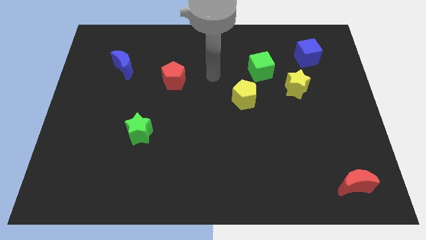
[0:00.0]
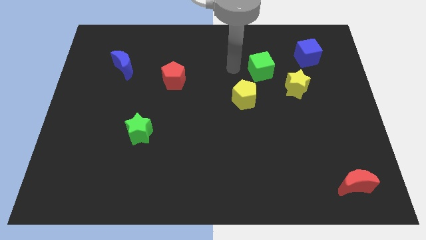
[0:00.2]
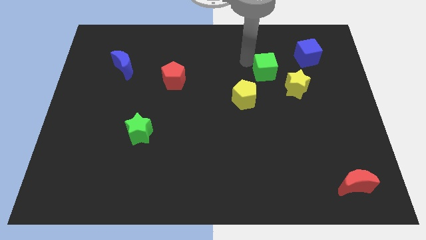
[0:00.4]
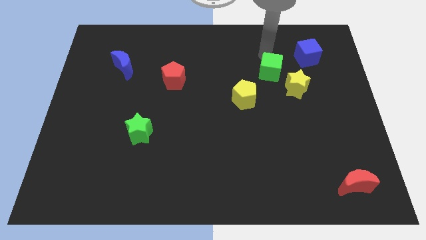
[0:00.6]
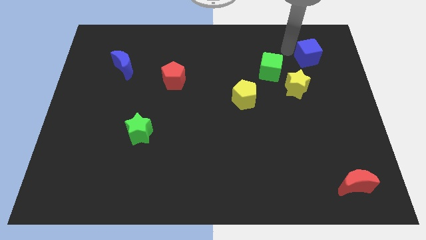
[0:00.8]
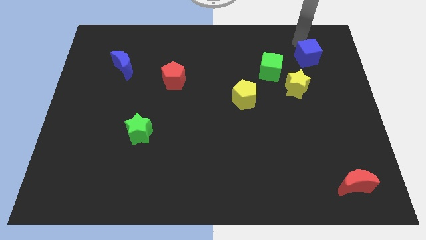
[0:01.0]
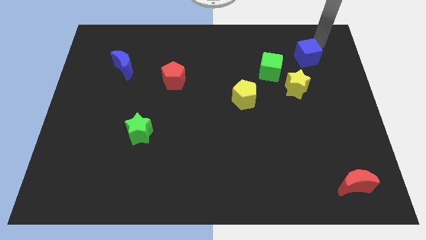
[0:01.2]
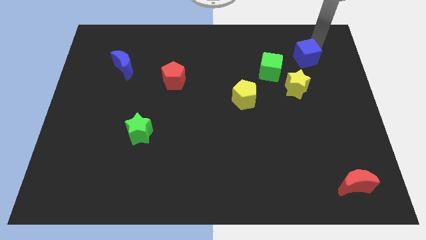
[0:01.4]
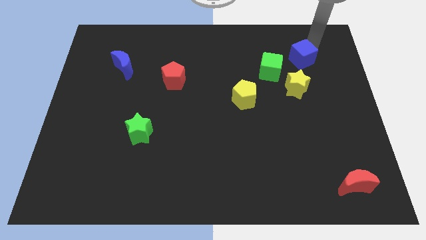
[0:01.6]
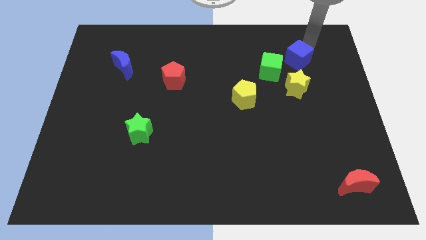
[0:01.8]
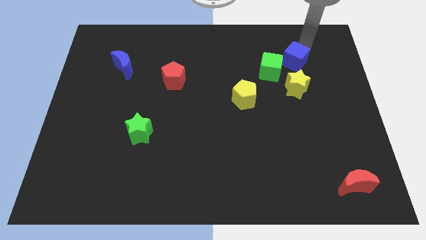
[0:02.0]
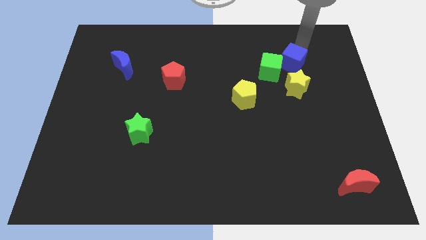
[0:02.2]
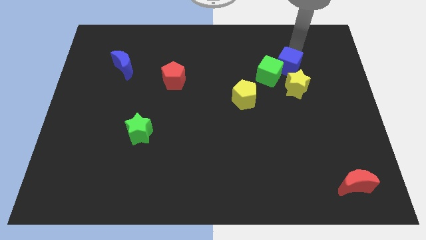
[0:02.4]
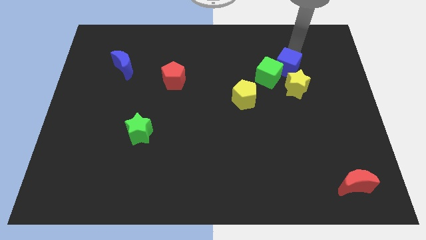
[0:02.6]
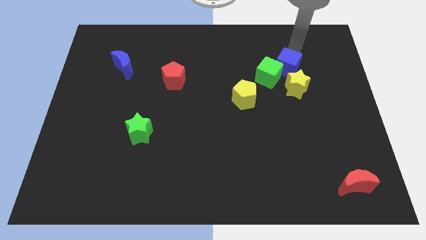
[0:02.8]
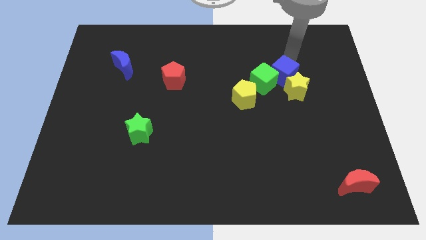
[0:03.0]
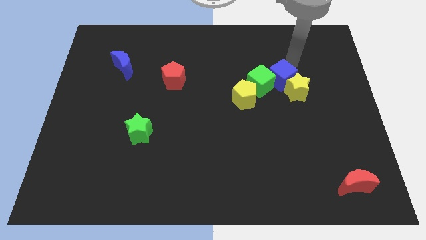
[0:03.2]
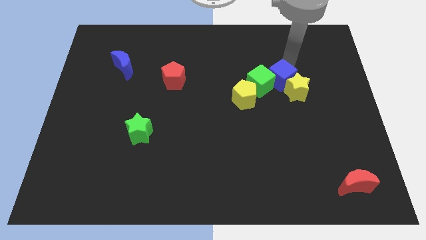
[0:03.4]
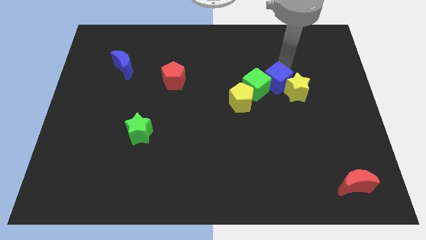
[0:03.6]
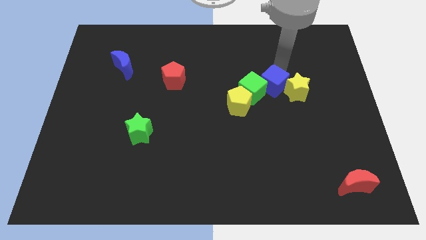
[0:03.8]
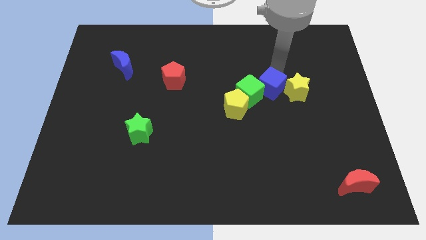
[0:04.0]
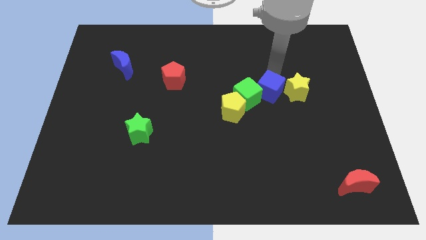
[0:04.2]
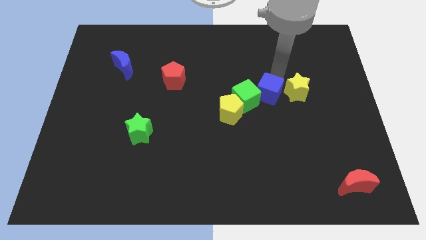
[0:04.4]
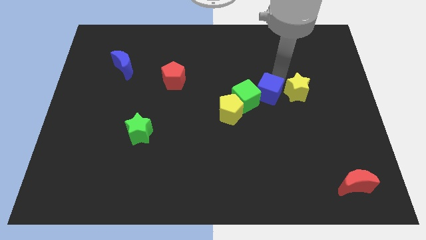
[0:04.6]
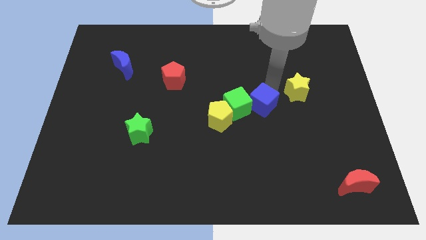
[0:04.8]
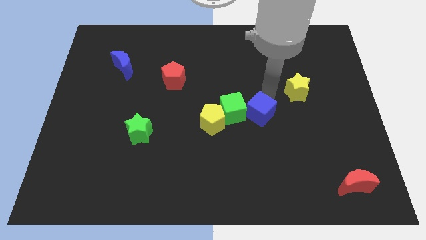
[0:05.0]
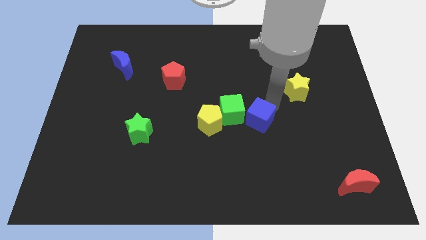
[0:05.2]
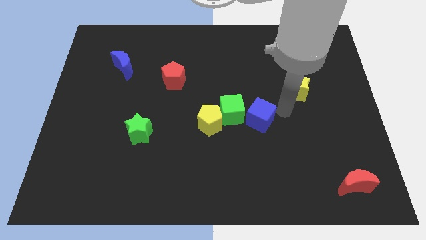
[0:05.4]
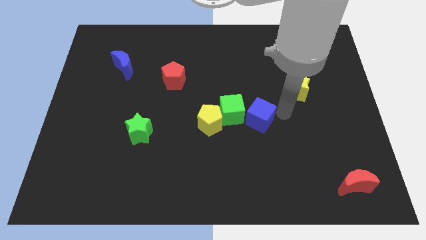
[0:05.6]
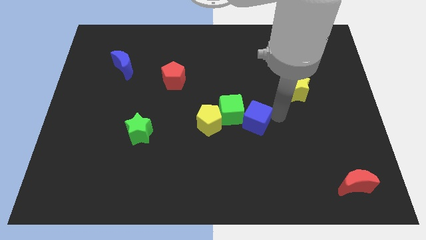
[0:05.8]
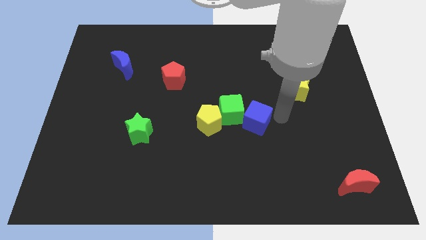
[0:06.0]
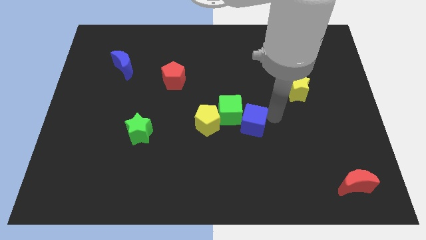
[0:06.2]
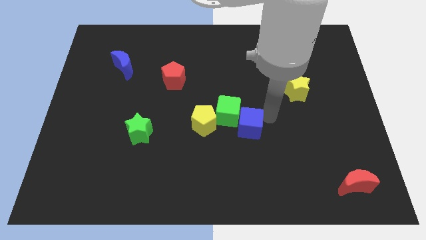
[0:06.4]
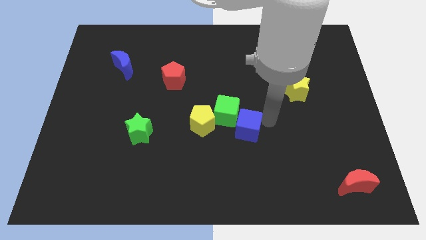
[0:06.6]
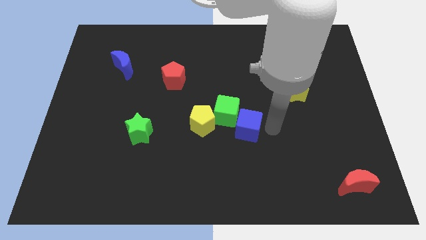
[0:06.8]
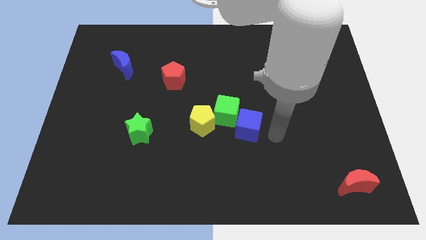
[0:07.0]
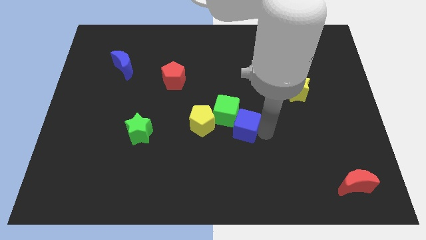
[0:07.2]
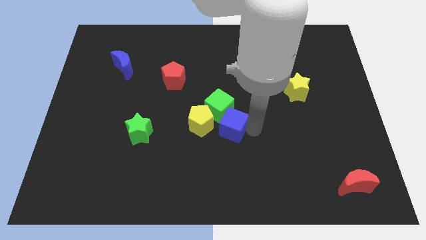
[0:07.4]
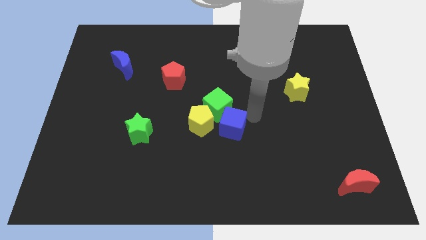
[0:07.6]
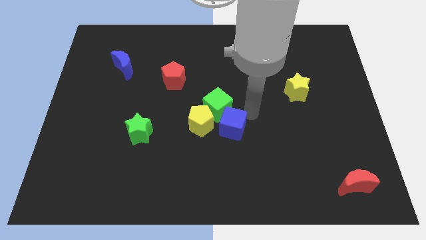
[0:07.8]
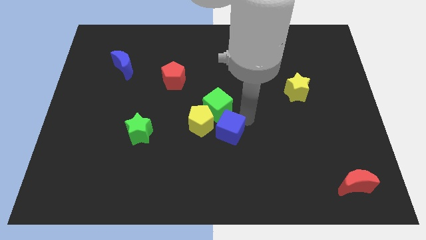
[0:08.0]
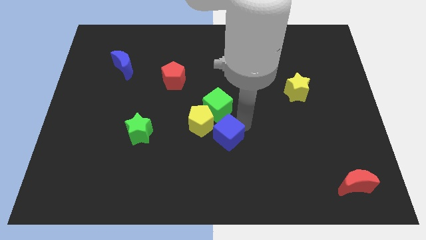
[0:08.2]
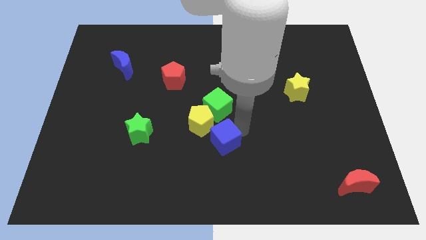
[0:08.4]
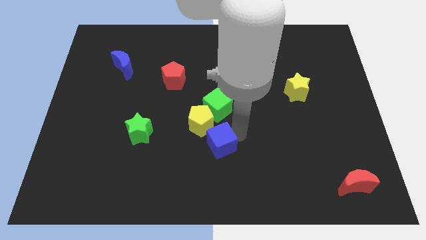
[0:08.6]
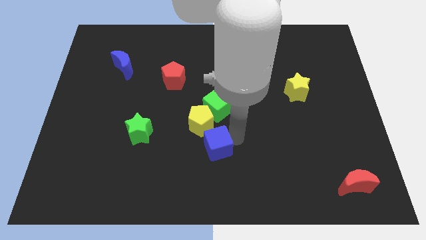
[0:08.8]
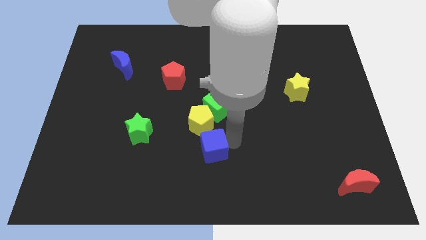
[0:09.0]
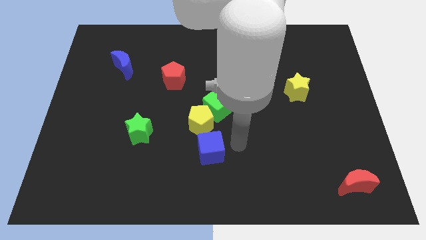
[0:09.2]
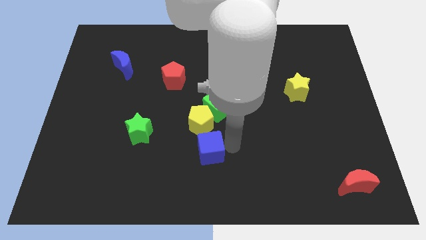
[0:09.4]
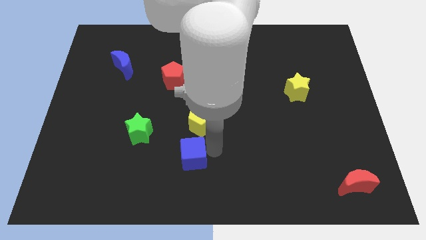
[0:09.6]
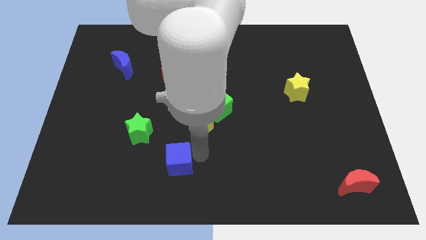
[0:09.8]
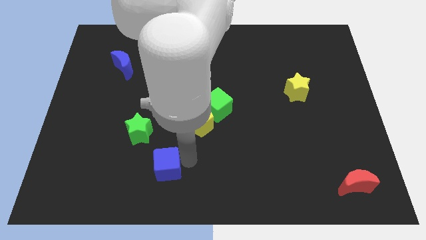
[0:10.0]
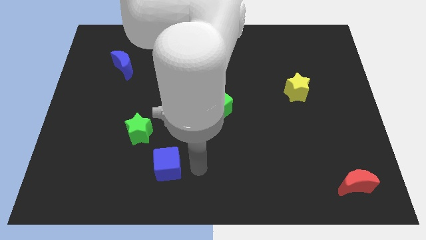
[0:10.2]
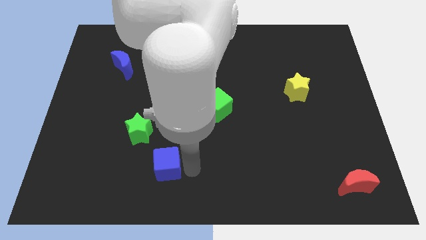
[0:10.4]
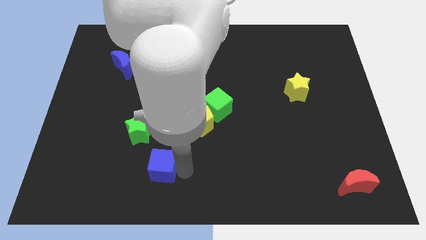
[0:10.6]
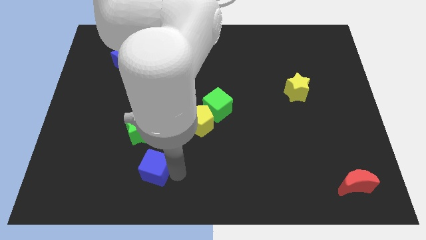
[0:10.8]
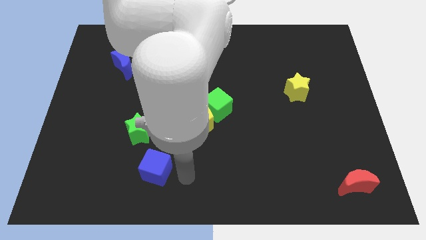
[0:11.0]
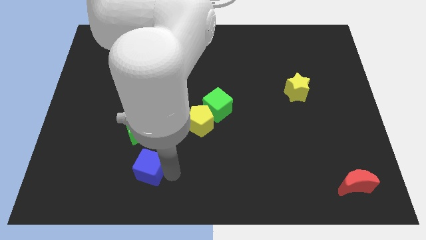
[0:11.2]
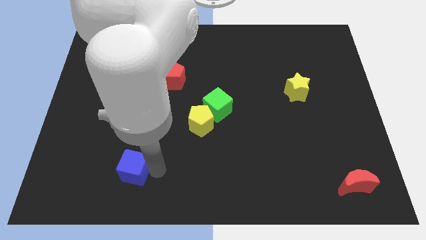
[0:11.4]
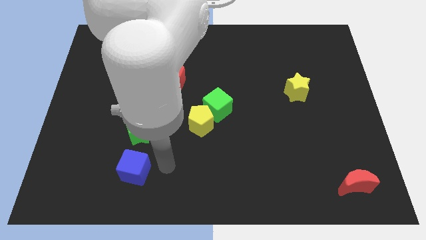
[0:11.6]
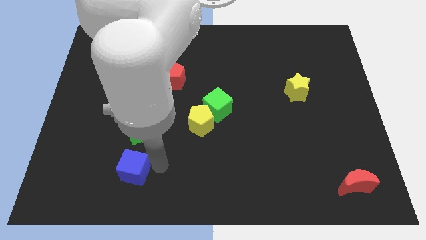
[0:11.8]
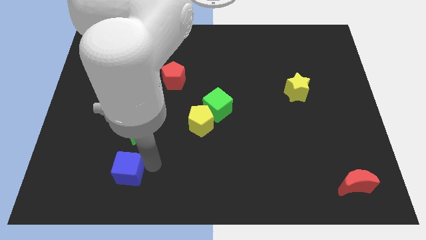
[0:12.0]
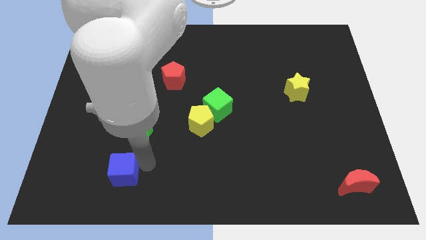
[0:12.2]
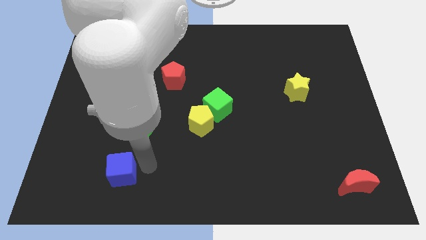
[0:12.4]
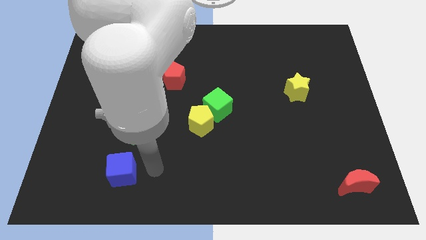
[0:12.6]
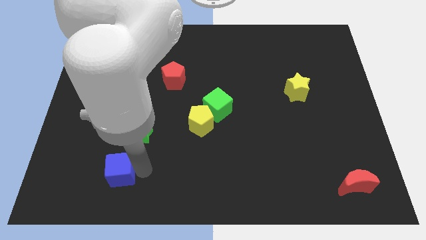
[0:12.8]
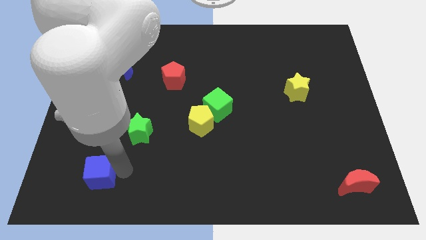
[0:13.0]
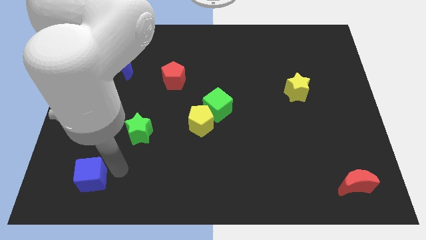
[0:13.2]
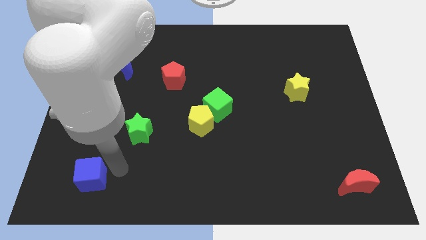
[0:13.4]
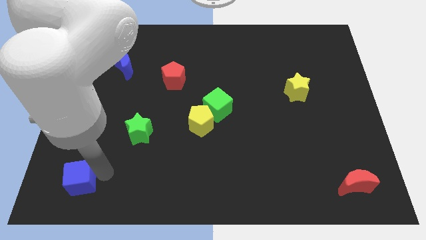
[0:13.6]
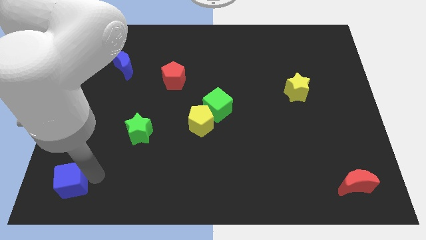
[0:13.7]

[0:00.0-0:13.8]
put the blue cube to the bottom left
